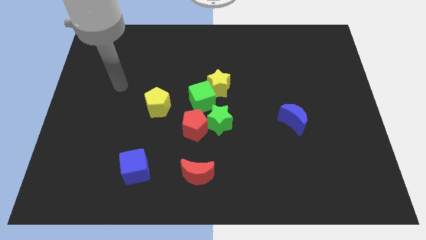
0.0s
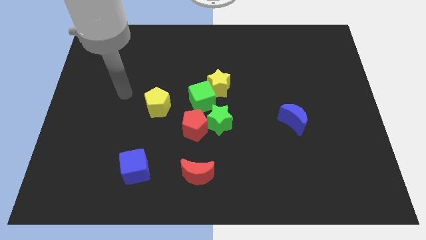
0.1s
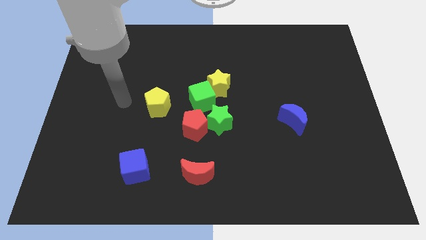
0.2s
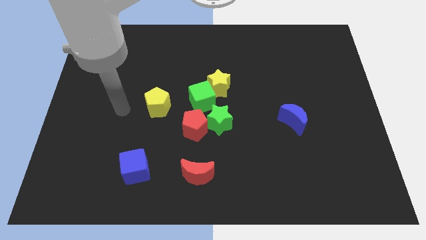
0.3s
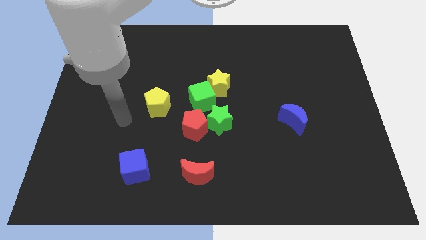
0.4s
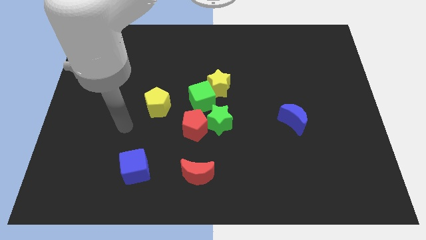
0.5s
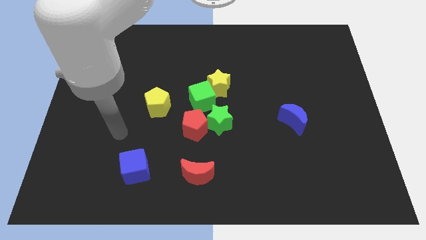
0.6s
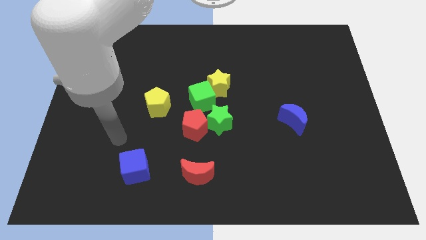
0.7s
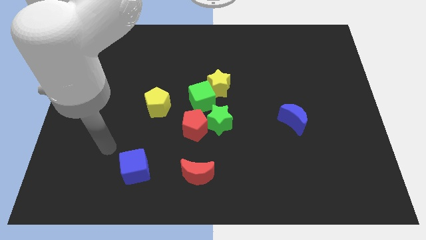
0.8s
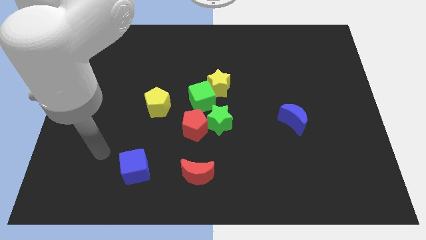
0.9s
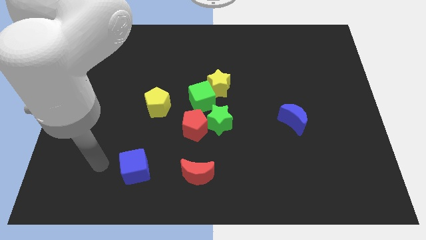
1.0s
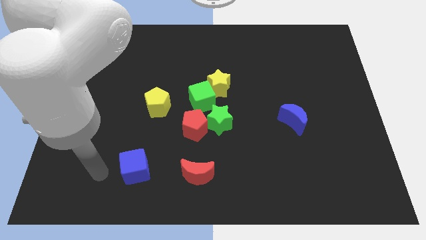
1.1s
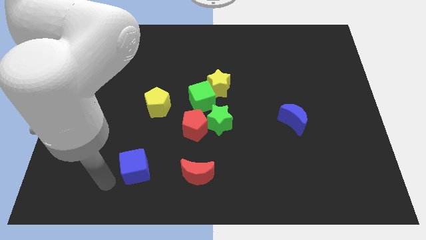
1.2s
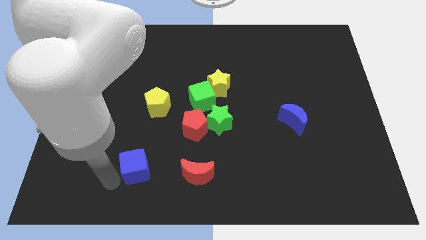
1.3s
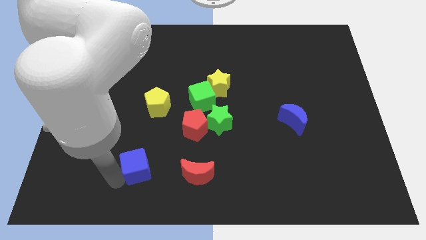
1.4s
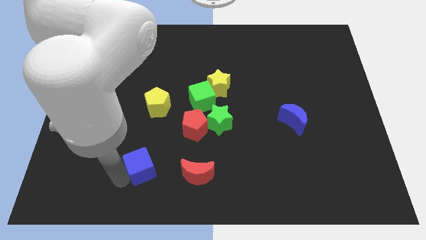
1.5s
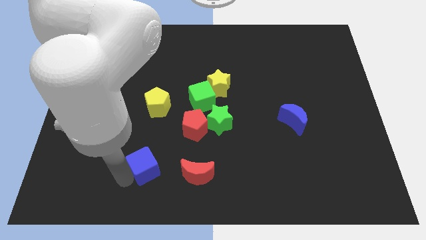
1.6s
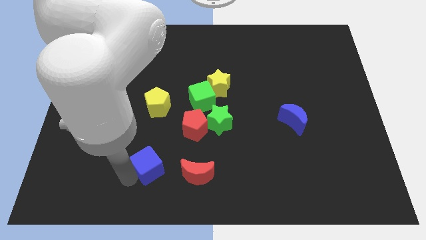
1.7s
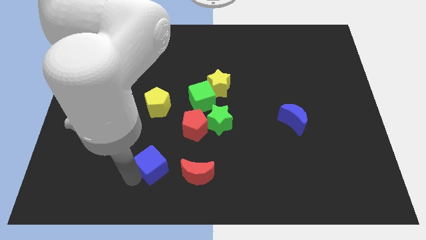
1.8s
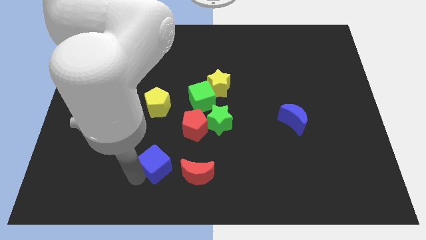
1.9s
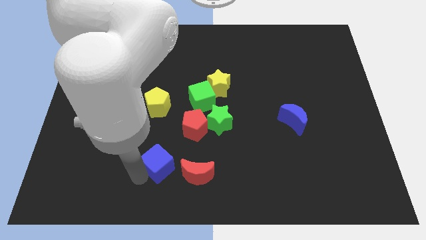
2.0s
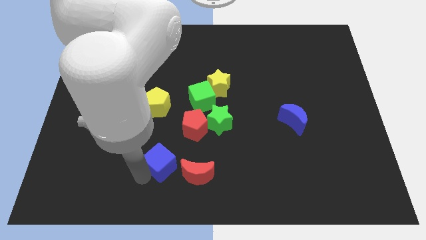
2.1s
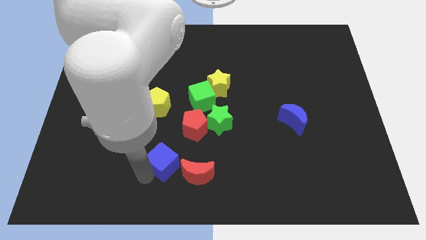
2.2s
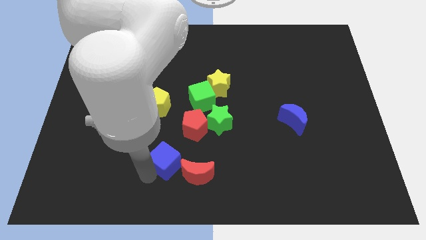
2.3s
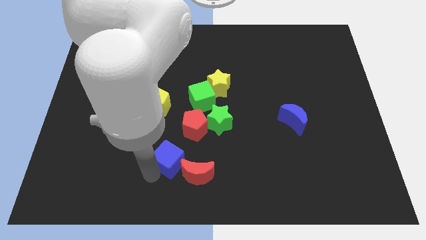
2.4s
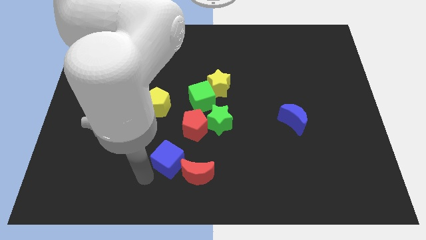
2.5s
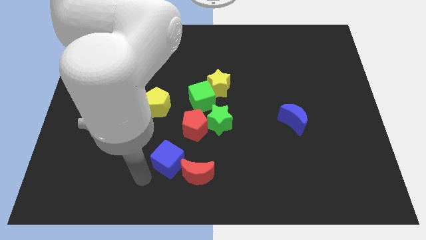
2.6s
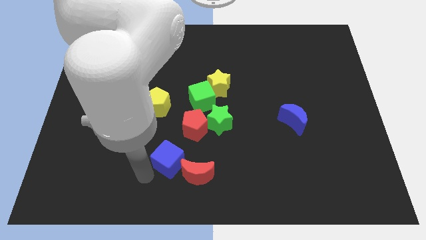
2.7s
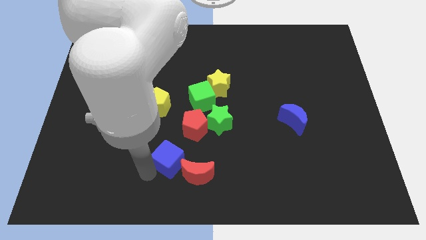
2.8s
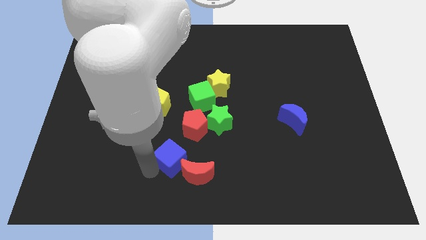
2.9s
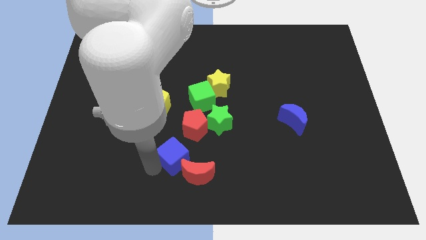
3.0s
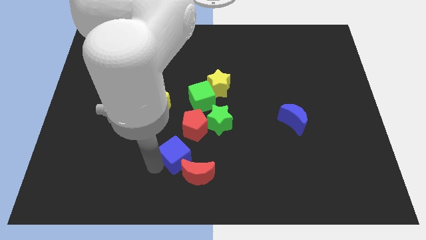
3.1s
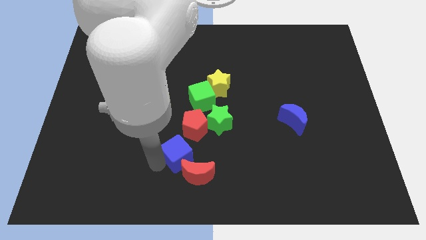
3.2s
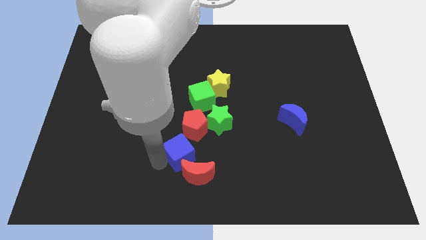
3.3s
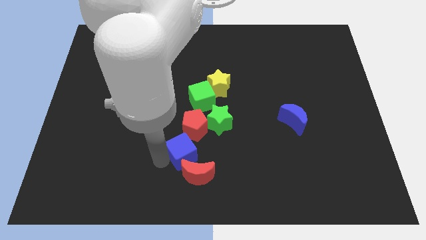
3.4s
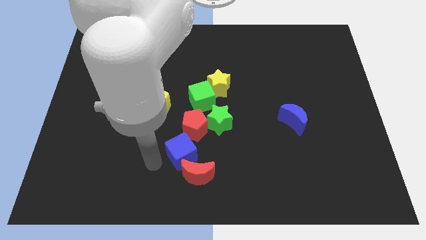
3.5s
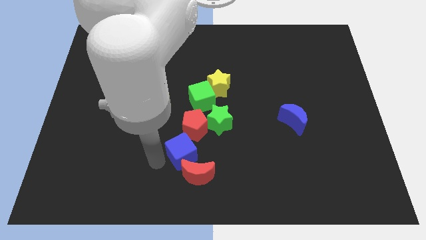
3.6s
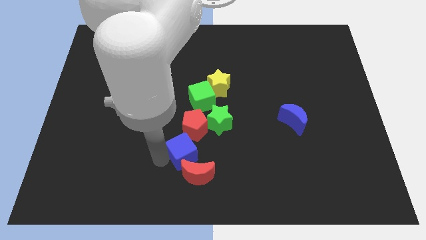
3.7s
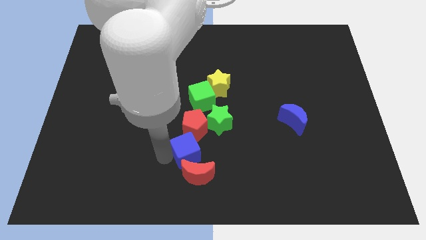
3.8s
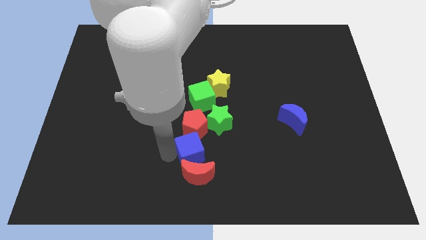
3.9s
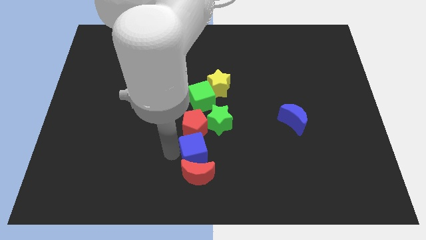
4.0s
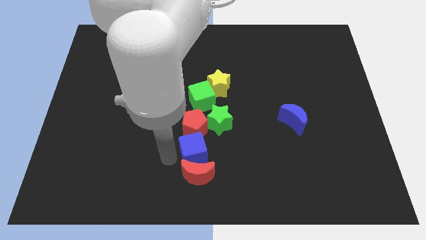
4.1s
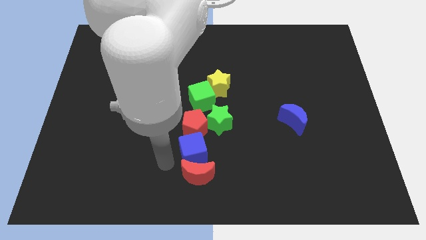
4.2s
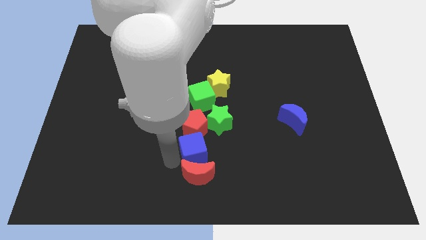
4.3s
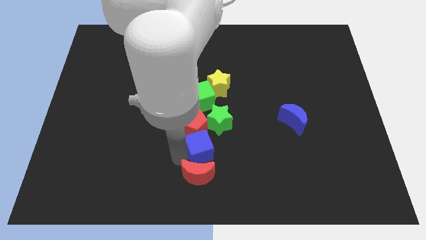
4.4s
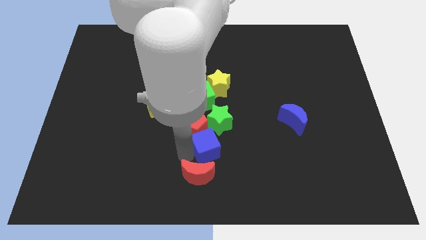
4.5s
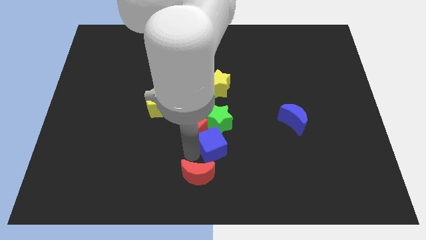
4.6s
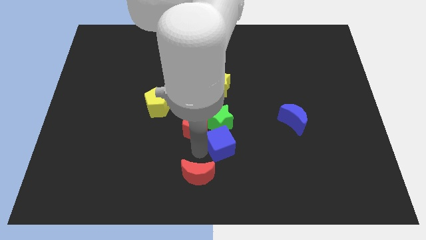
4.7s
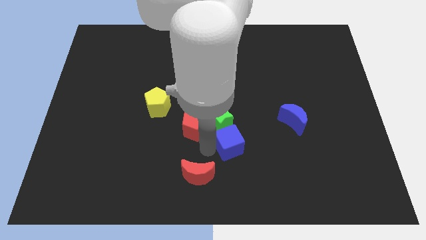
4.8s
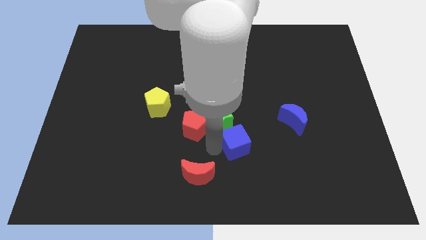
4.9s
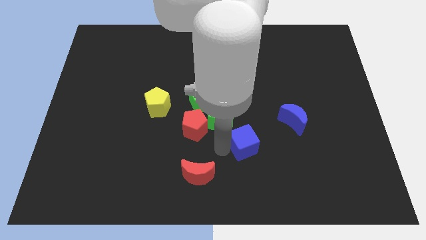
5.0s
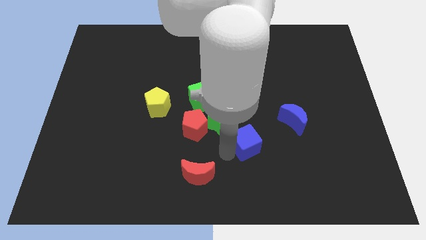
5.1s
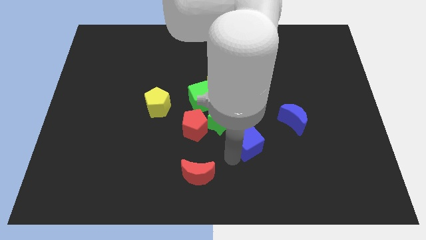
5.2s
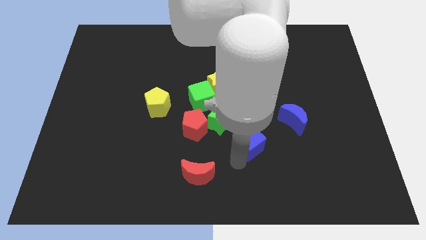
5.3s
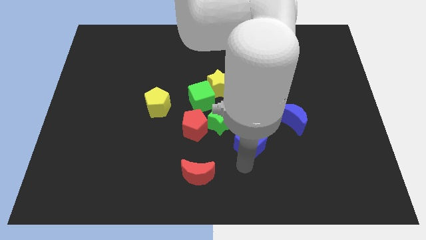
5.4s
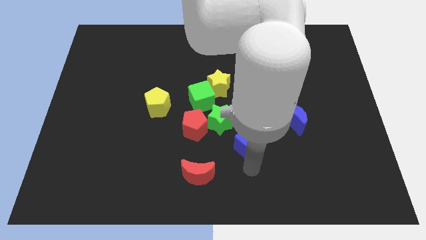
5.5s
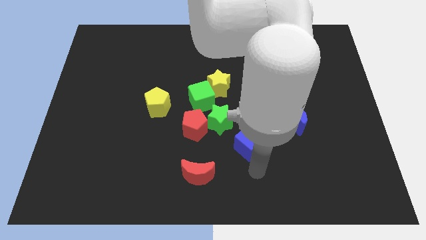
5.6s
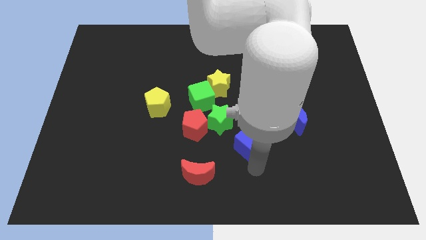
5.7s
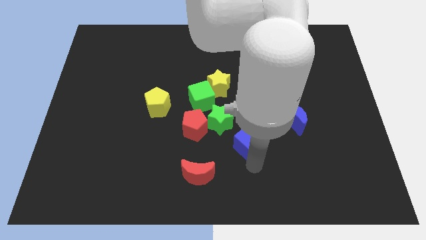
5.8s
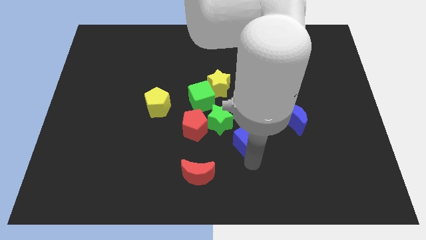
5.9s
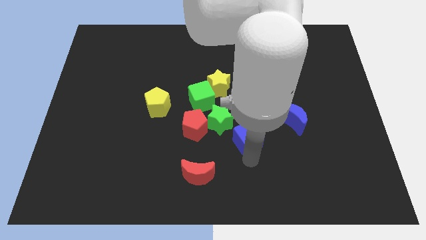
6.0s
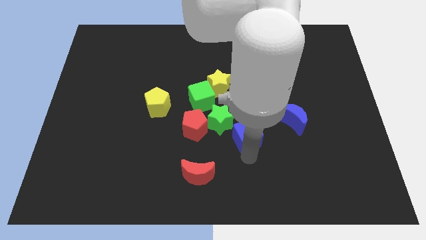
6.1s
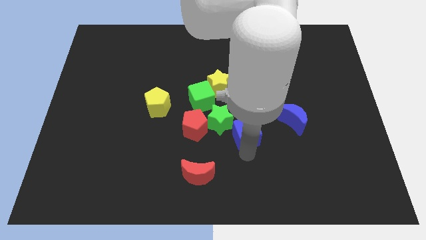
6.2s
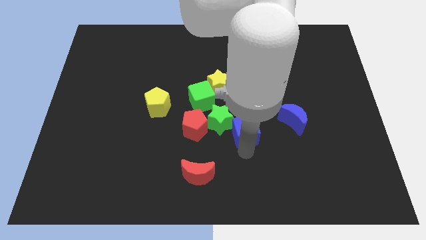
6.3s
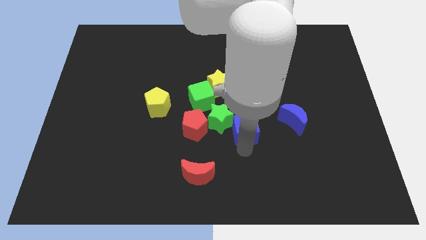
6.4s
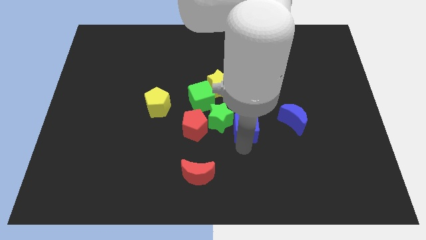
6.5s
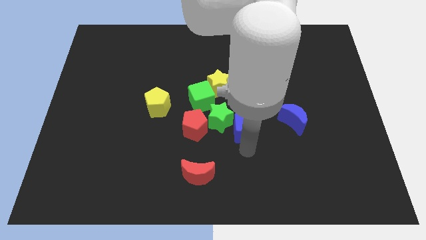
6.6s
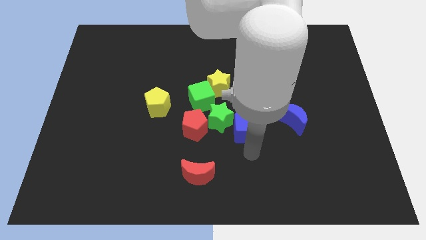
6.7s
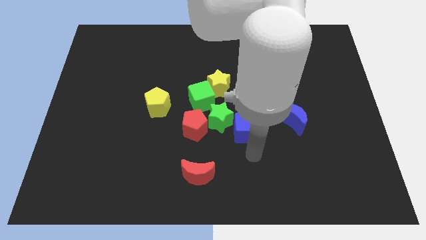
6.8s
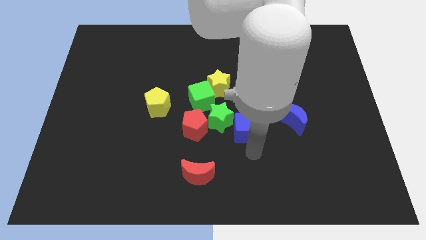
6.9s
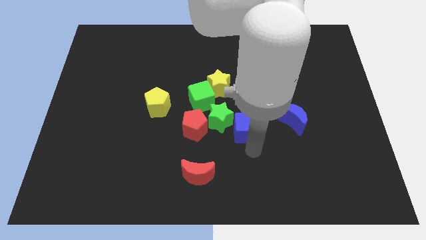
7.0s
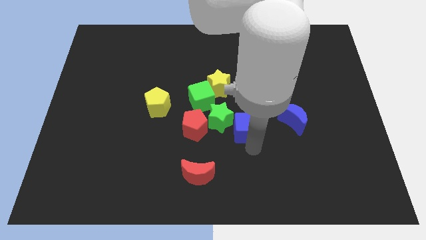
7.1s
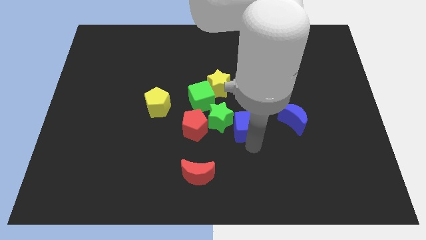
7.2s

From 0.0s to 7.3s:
push the blue cube up and to the right

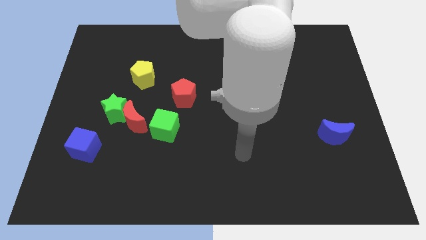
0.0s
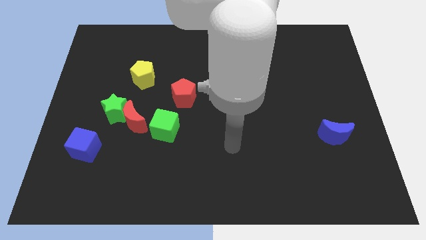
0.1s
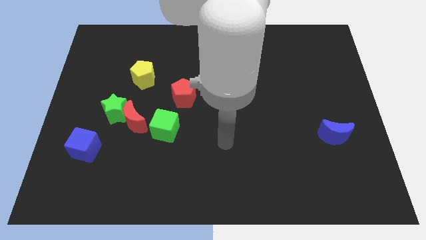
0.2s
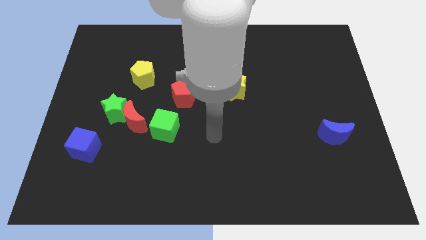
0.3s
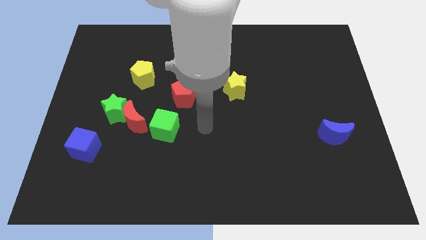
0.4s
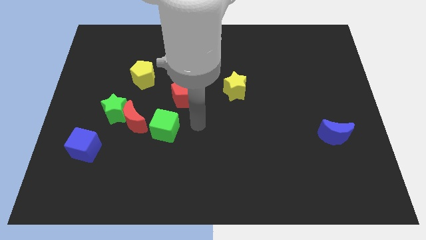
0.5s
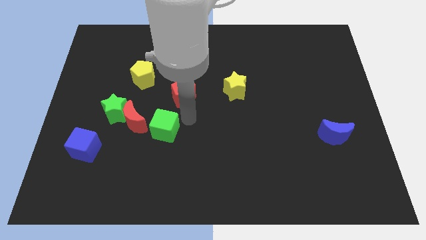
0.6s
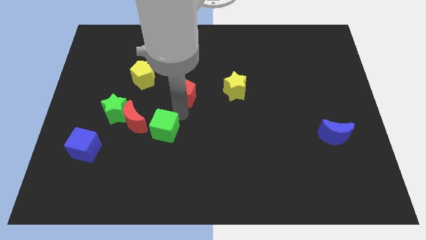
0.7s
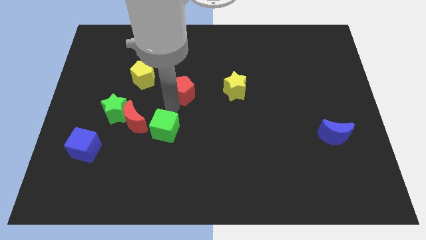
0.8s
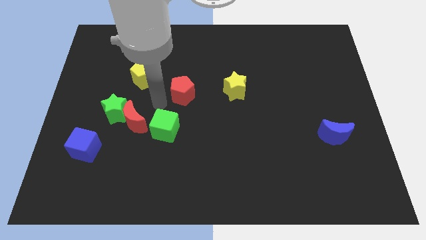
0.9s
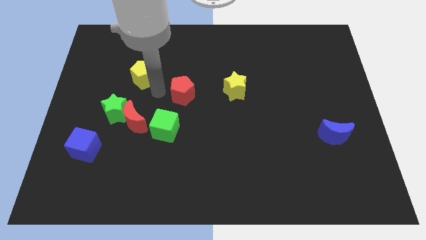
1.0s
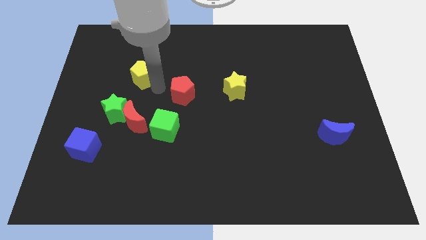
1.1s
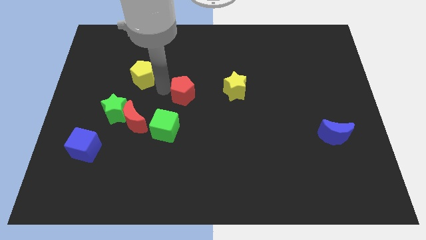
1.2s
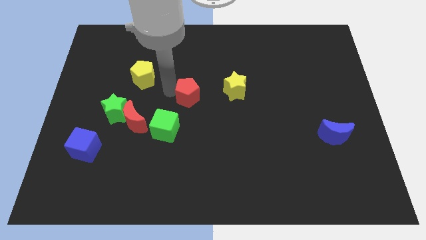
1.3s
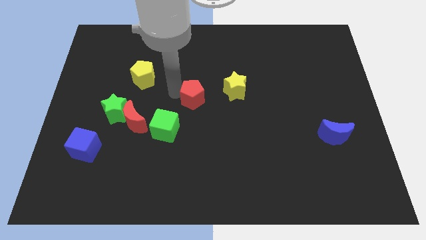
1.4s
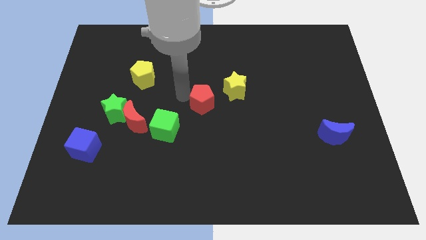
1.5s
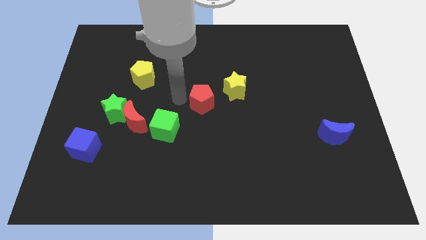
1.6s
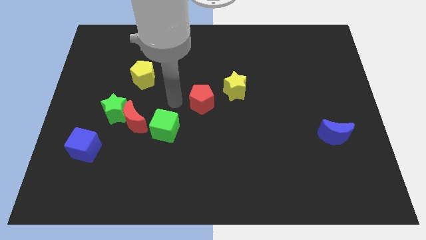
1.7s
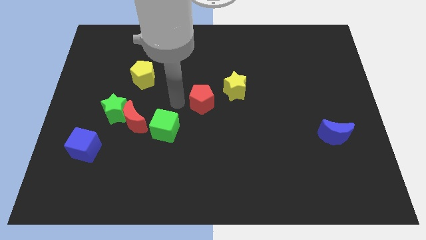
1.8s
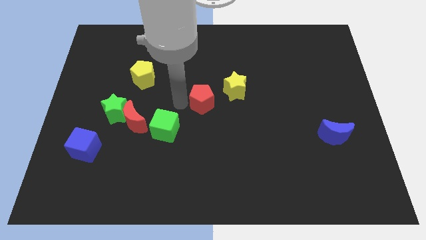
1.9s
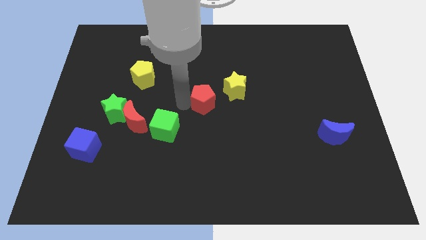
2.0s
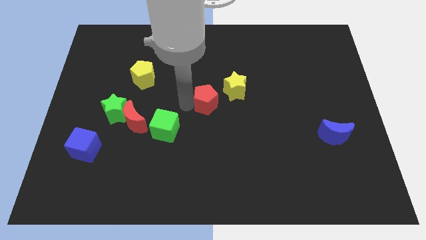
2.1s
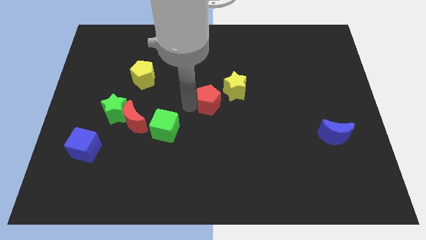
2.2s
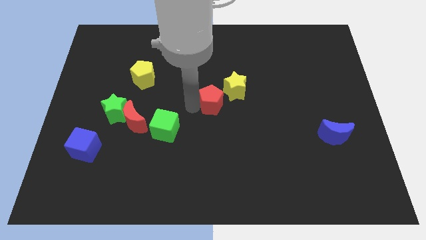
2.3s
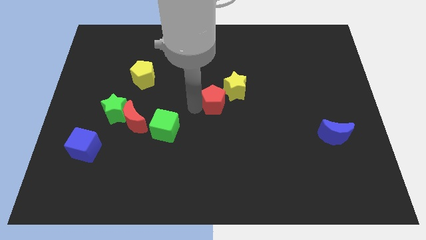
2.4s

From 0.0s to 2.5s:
slide the red pentagon right a little bit
